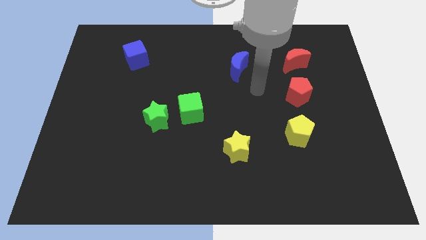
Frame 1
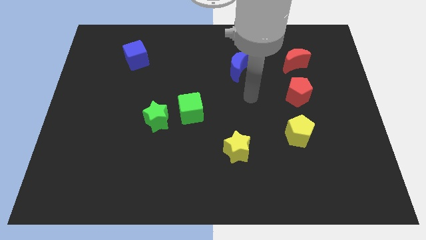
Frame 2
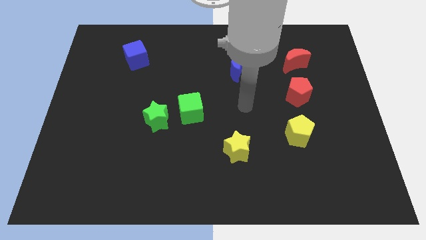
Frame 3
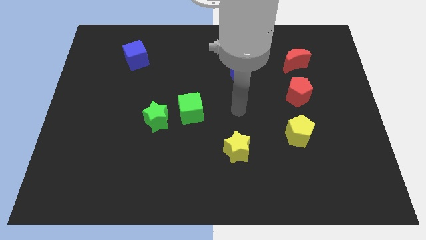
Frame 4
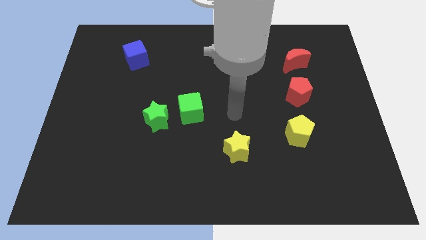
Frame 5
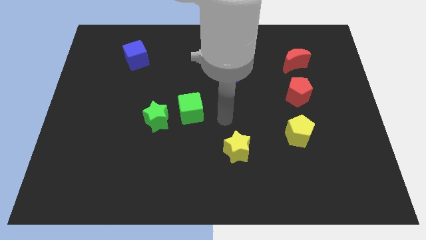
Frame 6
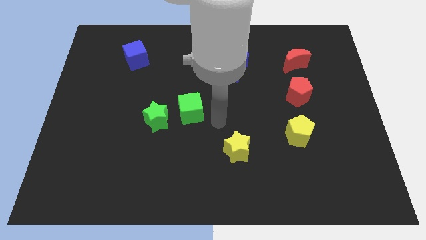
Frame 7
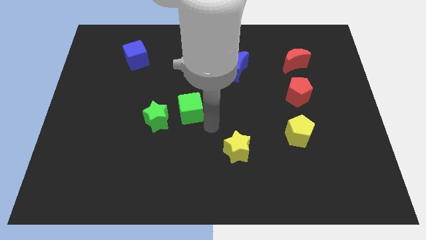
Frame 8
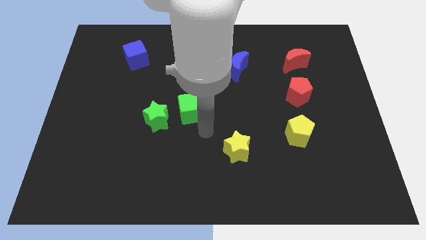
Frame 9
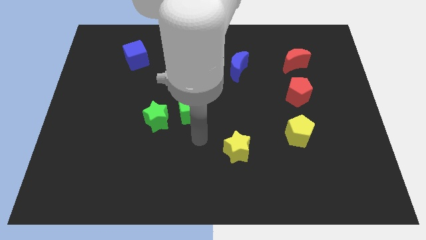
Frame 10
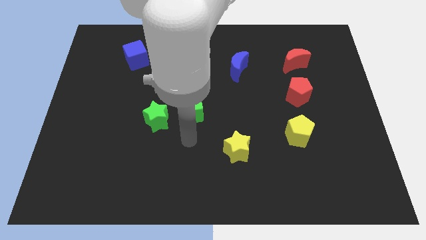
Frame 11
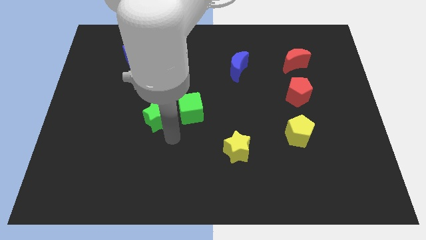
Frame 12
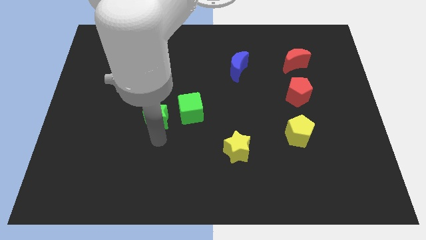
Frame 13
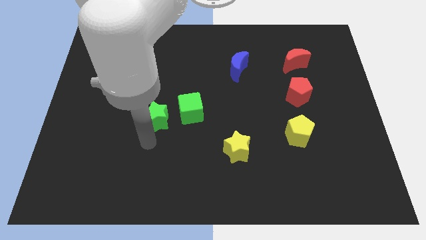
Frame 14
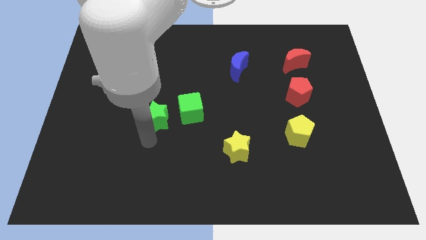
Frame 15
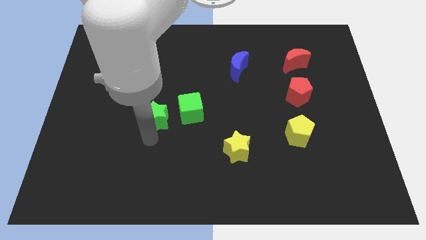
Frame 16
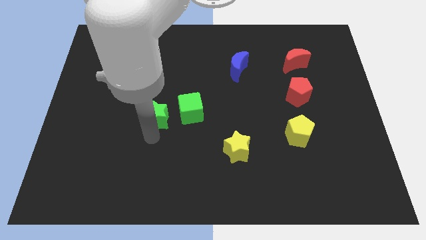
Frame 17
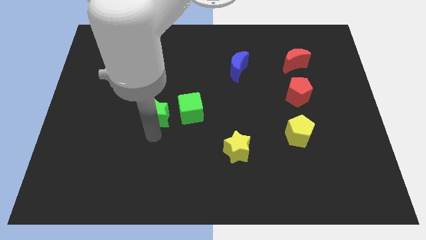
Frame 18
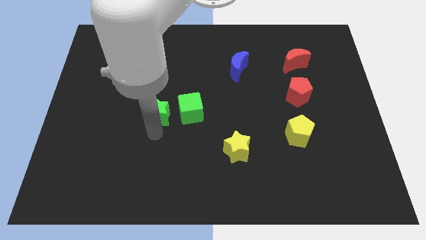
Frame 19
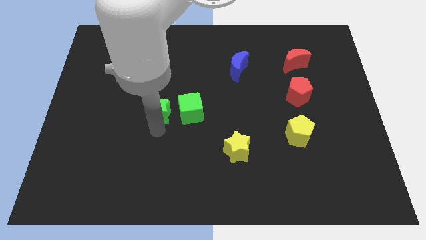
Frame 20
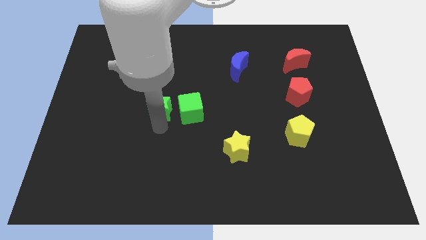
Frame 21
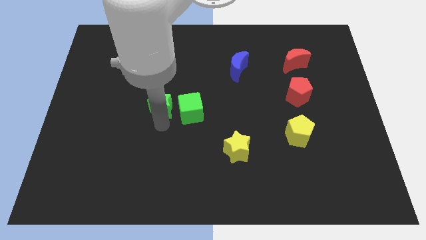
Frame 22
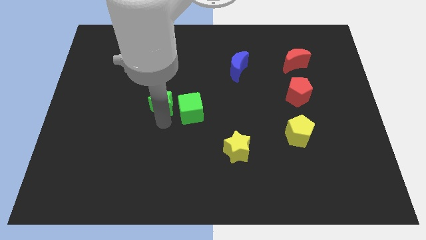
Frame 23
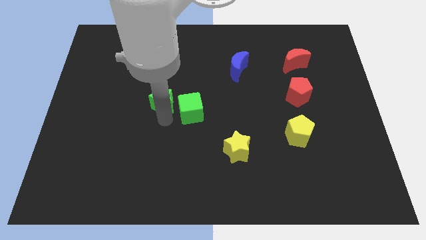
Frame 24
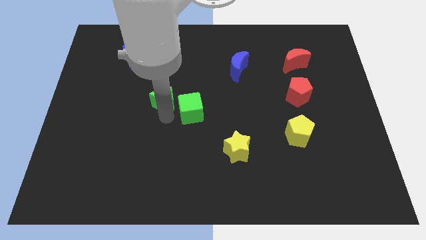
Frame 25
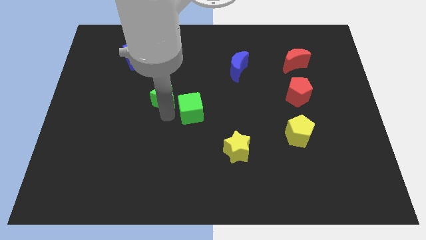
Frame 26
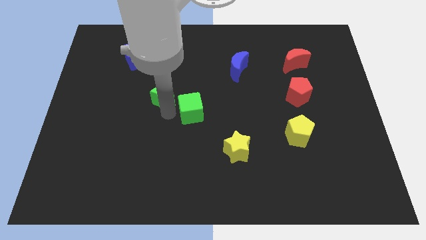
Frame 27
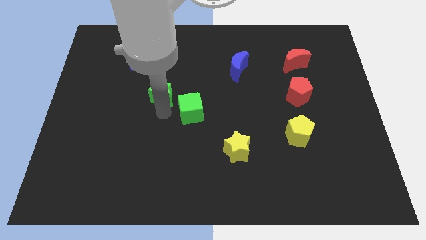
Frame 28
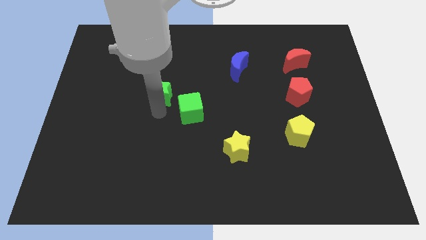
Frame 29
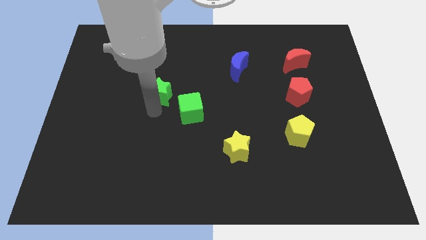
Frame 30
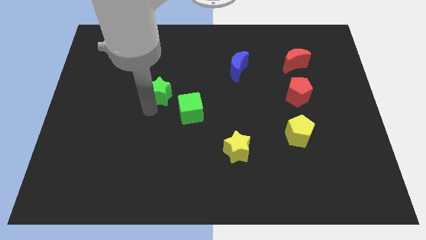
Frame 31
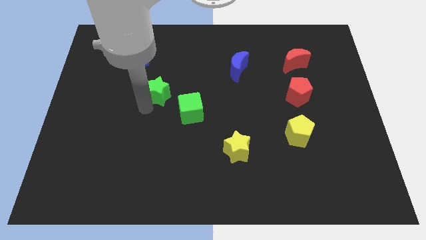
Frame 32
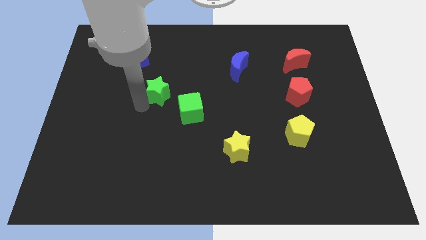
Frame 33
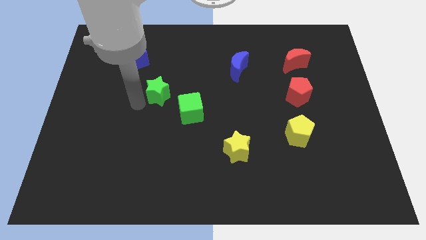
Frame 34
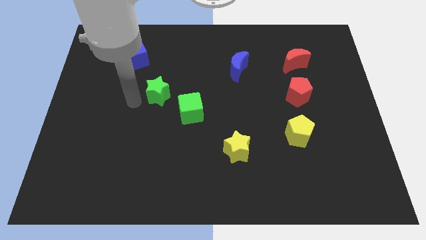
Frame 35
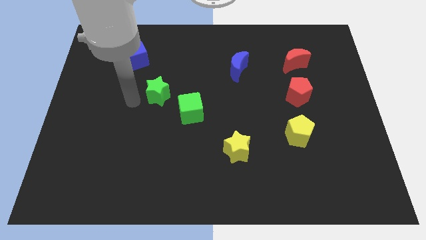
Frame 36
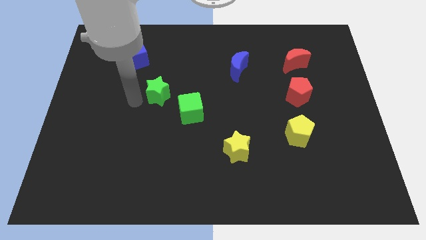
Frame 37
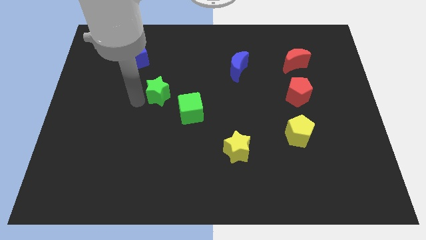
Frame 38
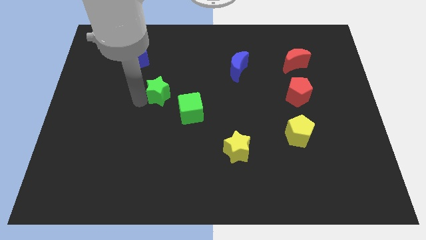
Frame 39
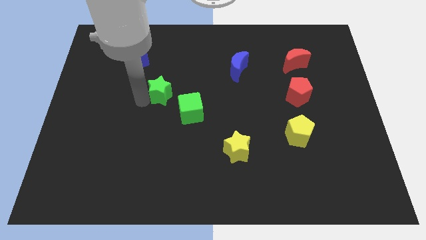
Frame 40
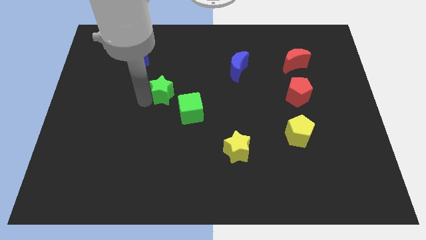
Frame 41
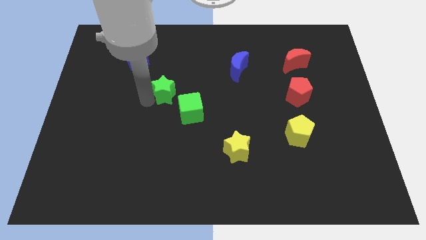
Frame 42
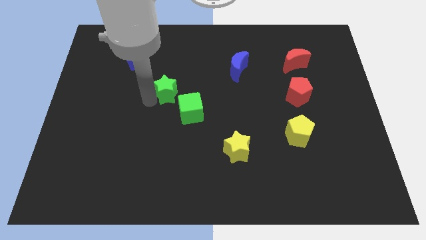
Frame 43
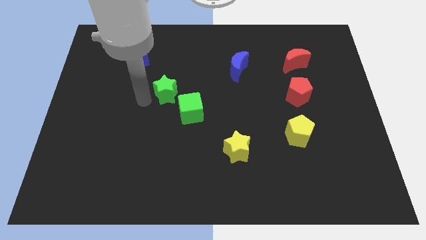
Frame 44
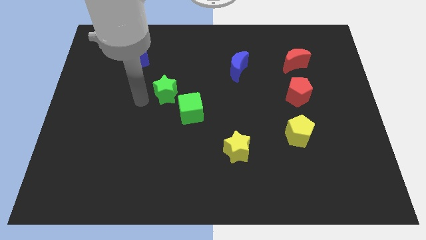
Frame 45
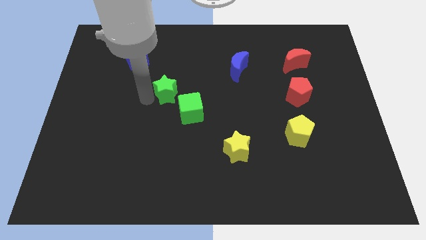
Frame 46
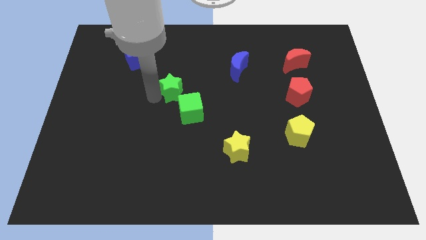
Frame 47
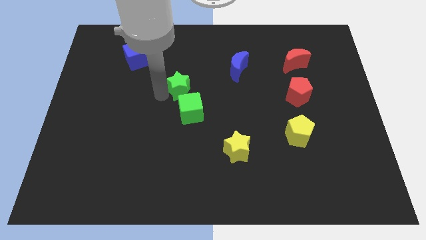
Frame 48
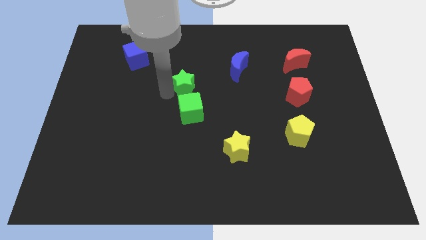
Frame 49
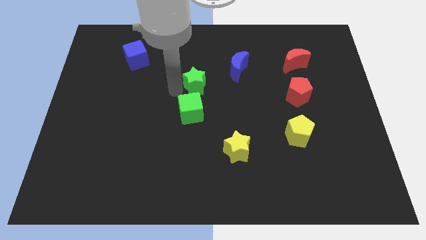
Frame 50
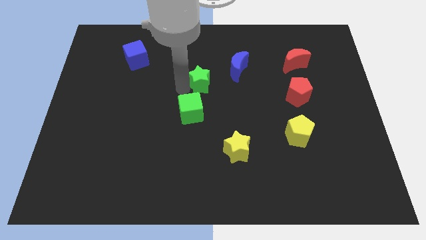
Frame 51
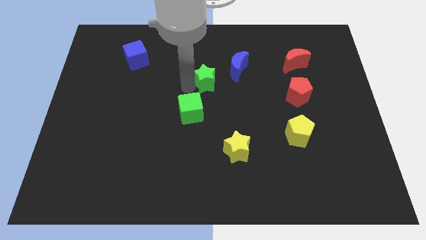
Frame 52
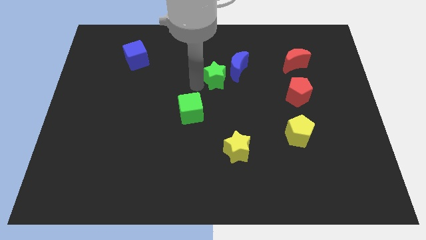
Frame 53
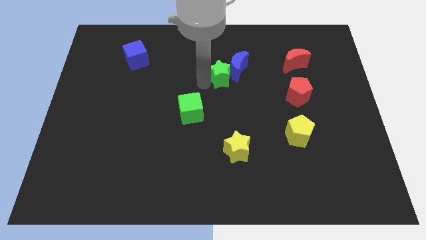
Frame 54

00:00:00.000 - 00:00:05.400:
push the green star close to the blue moon

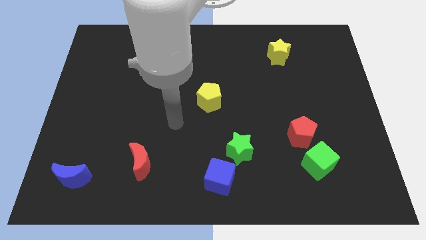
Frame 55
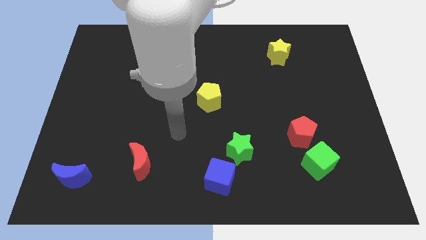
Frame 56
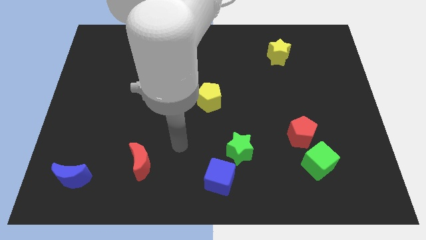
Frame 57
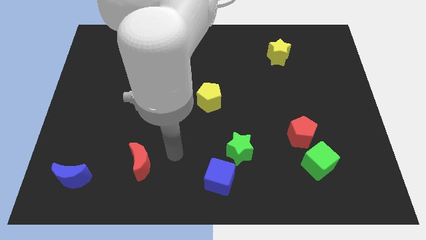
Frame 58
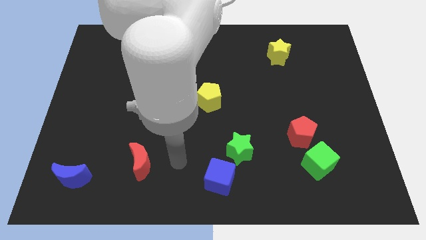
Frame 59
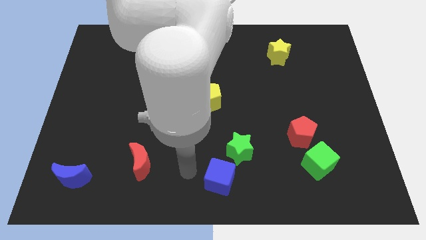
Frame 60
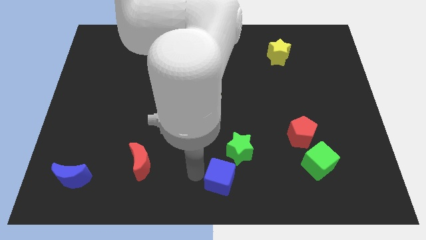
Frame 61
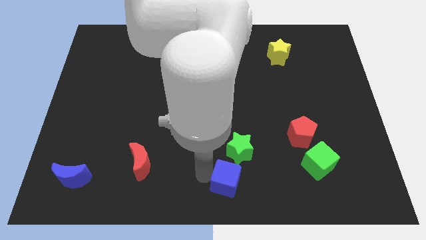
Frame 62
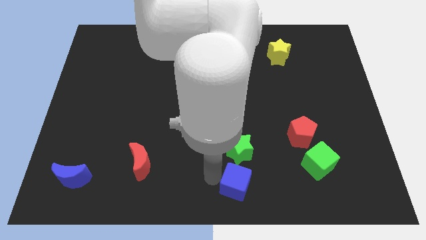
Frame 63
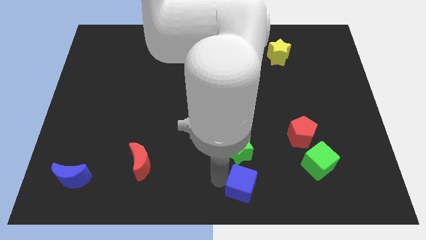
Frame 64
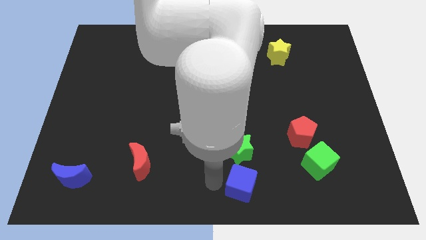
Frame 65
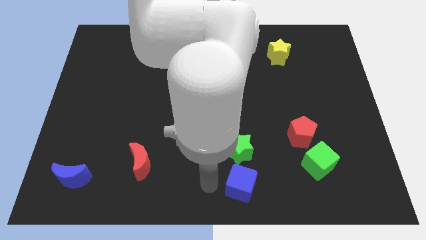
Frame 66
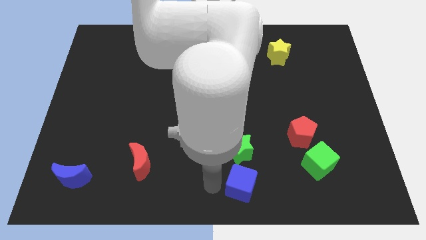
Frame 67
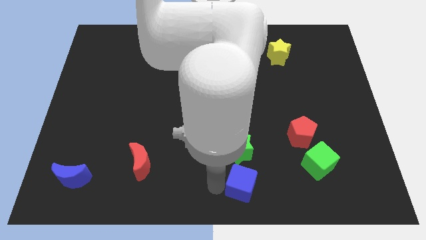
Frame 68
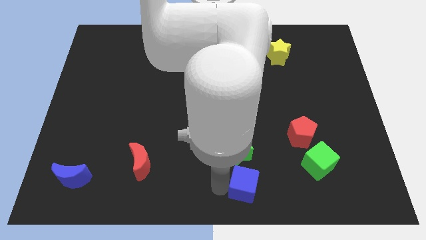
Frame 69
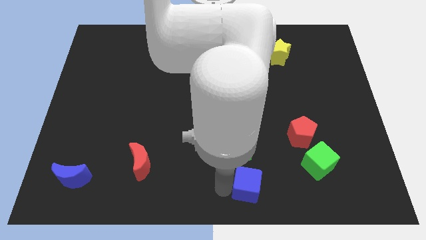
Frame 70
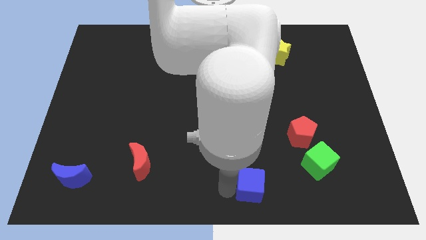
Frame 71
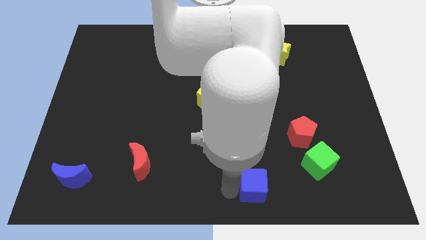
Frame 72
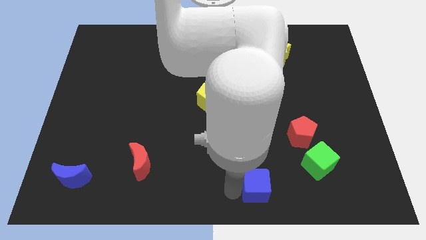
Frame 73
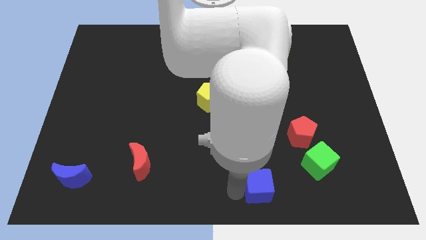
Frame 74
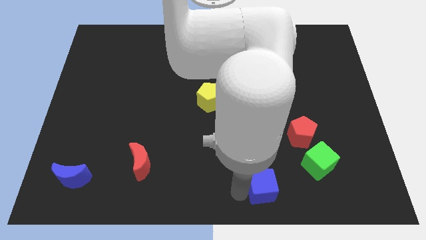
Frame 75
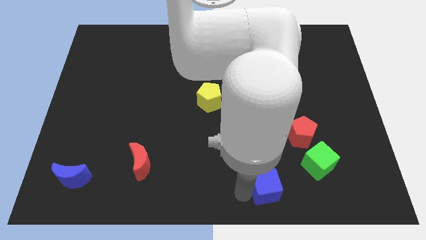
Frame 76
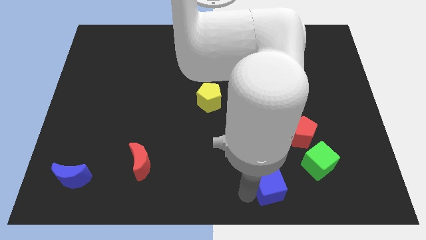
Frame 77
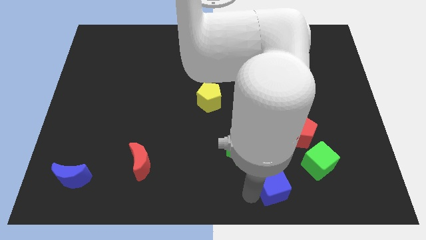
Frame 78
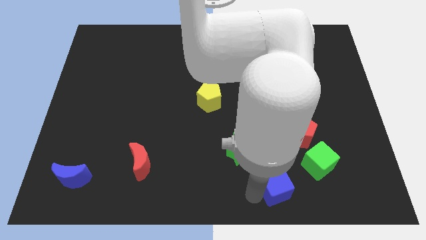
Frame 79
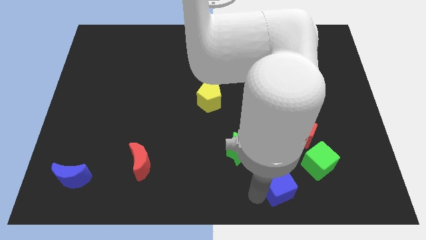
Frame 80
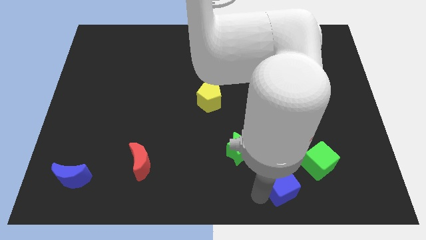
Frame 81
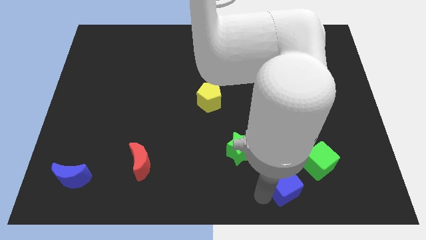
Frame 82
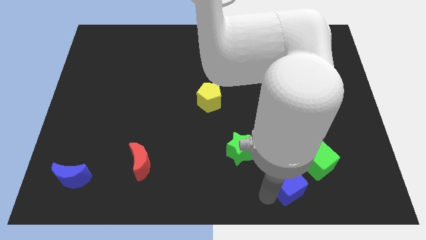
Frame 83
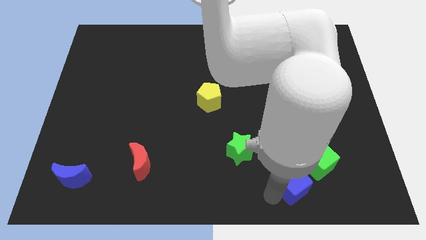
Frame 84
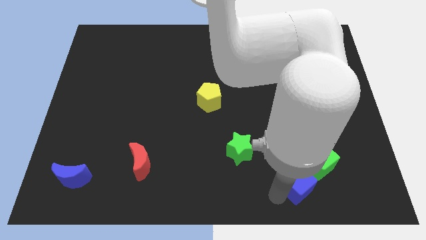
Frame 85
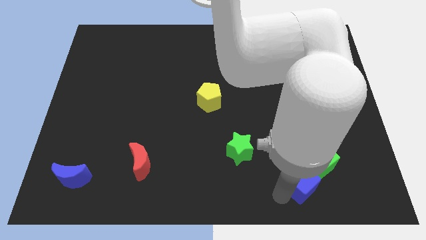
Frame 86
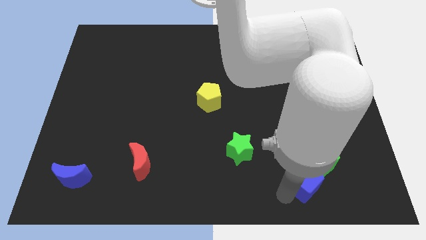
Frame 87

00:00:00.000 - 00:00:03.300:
slide the blue cube close to the green cube

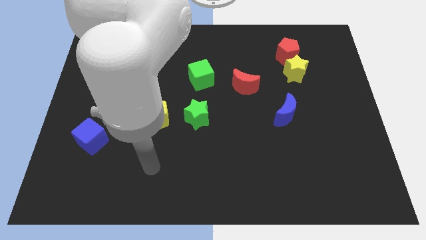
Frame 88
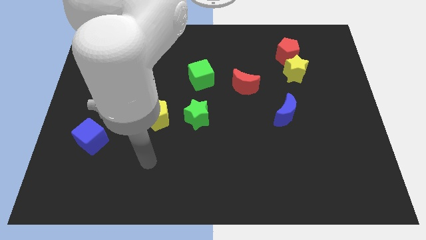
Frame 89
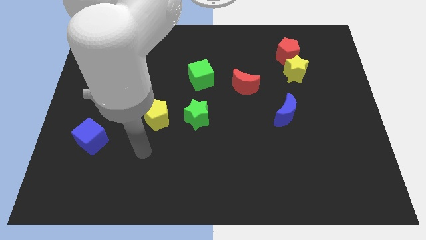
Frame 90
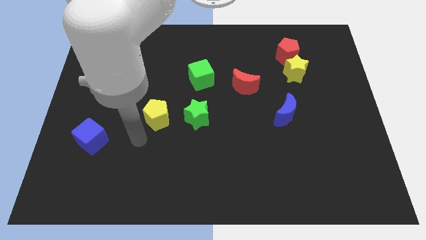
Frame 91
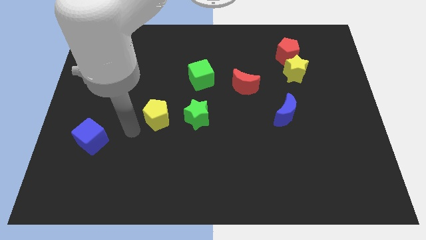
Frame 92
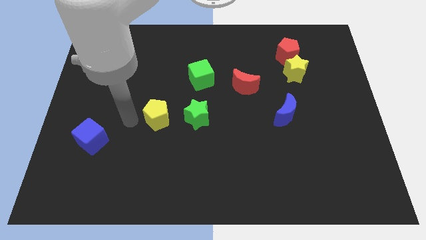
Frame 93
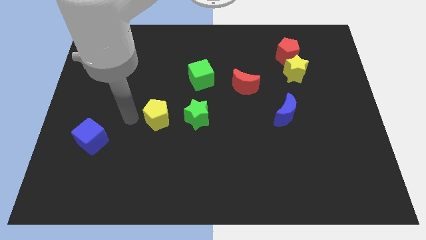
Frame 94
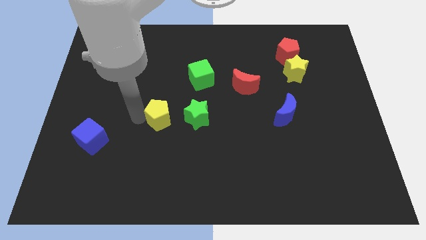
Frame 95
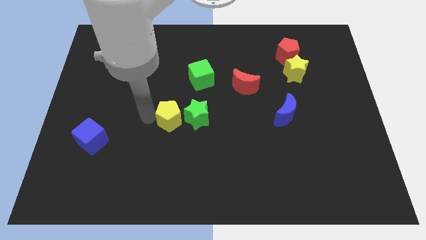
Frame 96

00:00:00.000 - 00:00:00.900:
push the yellow pentagon to the green star
